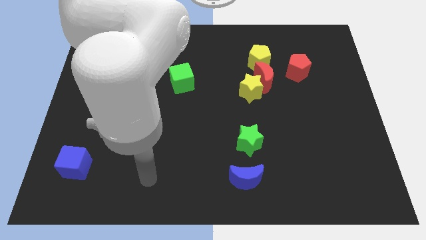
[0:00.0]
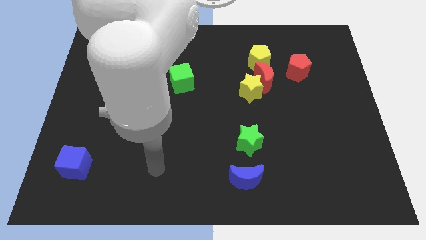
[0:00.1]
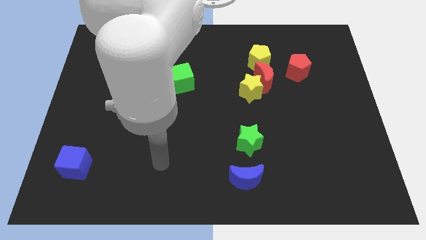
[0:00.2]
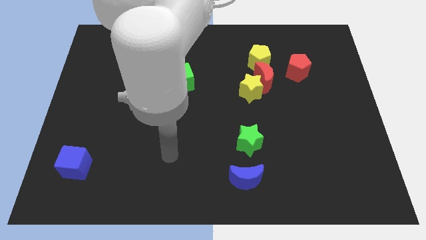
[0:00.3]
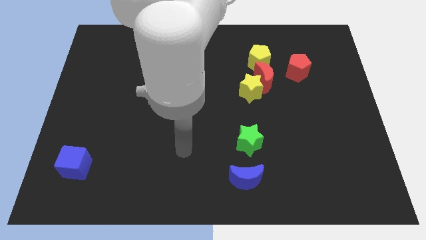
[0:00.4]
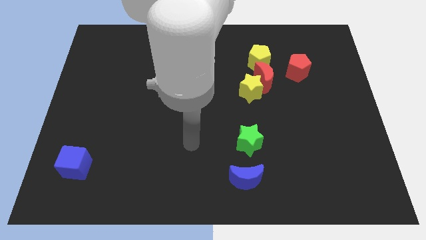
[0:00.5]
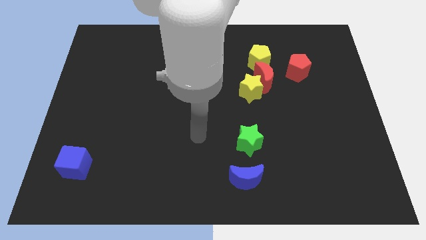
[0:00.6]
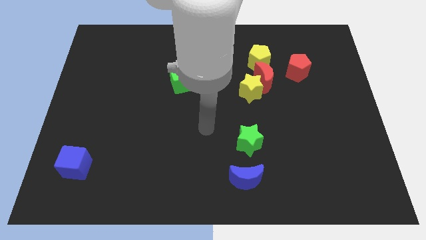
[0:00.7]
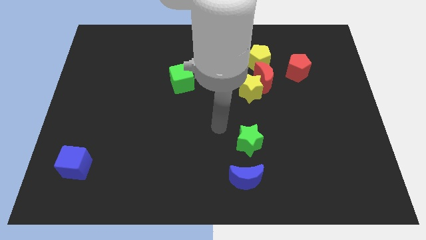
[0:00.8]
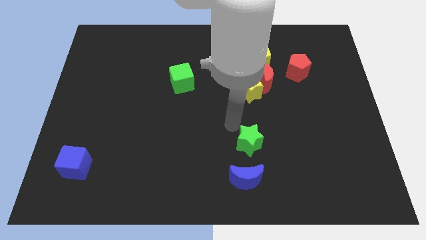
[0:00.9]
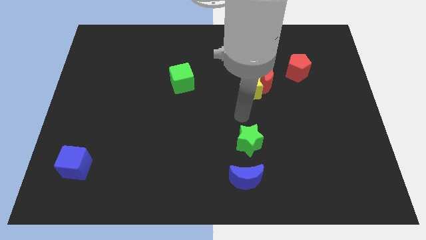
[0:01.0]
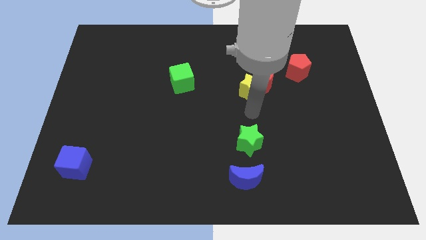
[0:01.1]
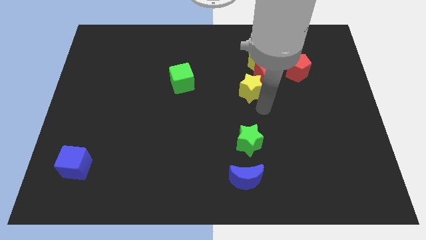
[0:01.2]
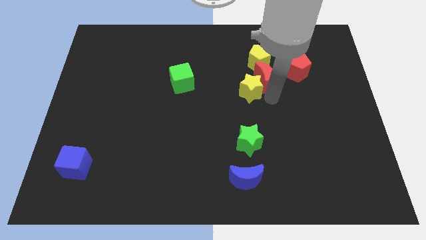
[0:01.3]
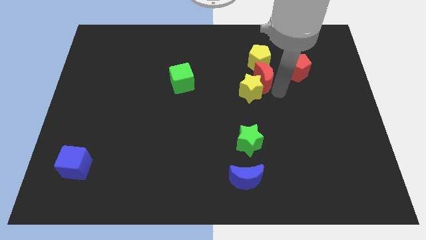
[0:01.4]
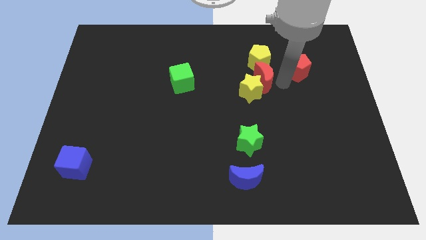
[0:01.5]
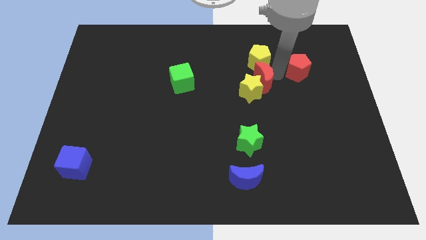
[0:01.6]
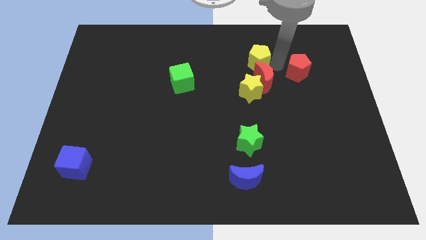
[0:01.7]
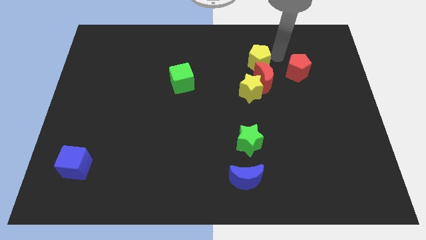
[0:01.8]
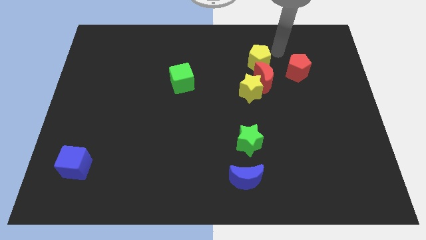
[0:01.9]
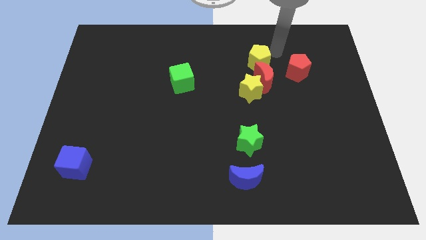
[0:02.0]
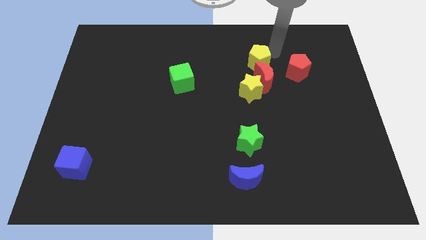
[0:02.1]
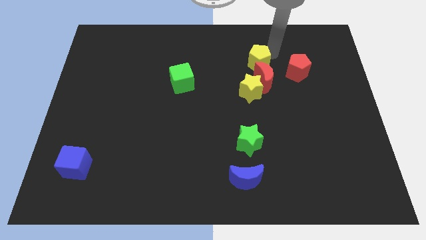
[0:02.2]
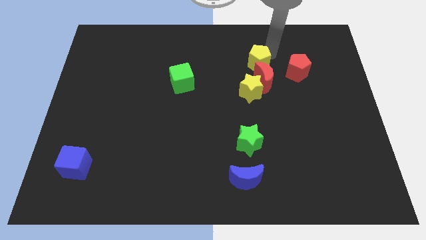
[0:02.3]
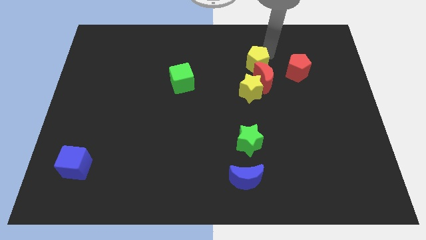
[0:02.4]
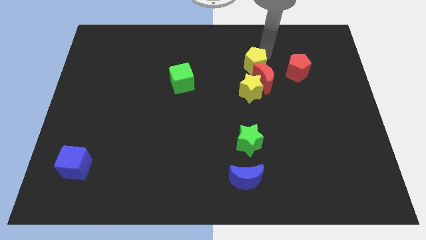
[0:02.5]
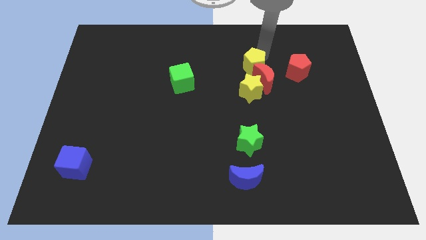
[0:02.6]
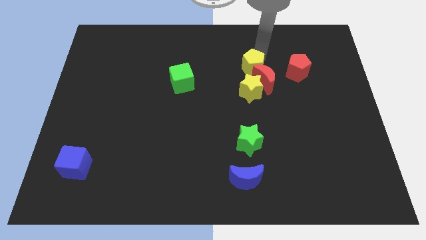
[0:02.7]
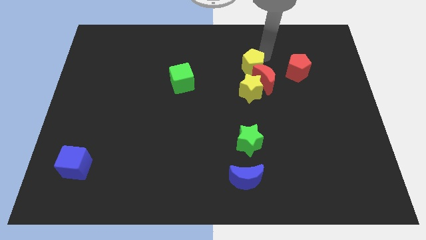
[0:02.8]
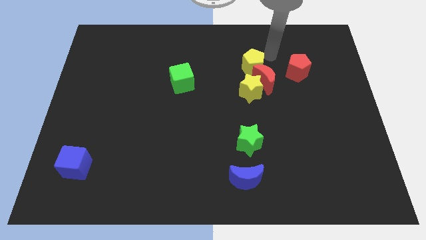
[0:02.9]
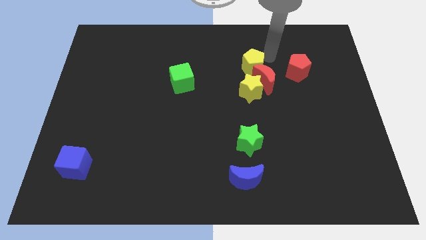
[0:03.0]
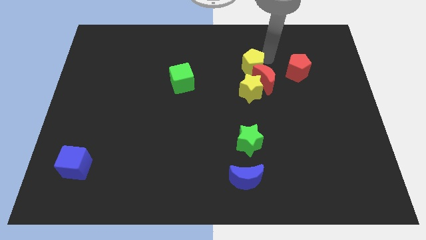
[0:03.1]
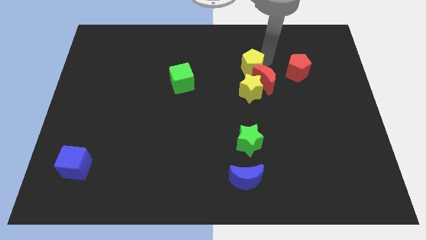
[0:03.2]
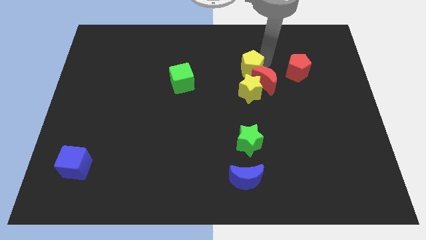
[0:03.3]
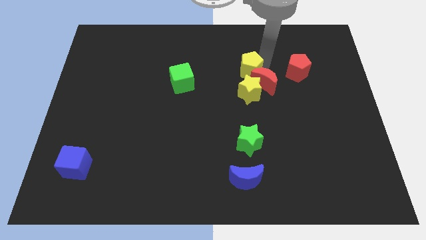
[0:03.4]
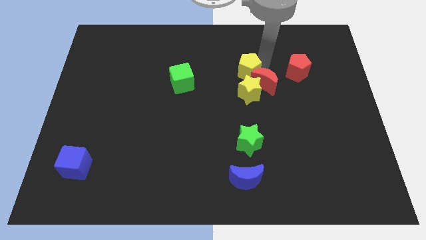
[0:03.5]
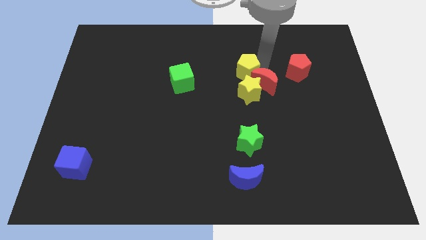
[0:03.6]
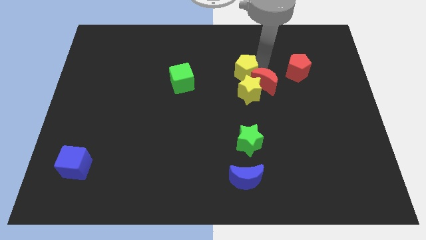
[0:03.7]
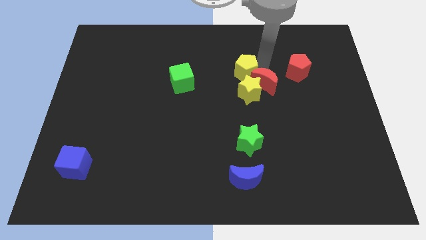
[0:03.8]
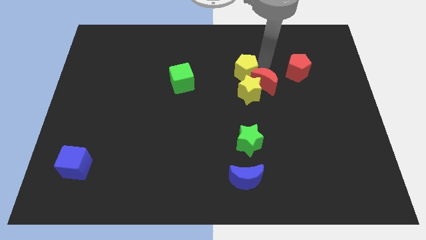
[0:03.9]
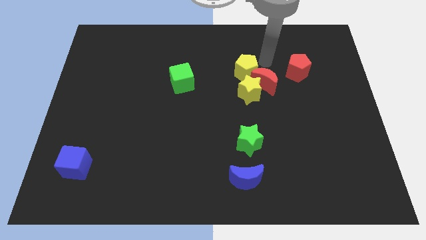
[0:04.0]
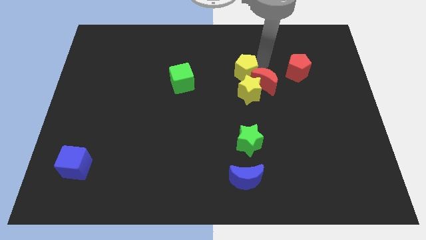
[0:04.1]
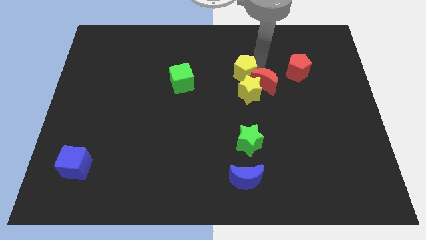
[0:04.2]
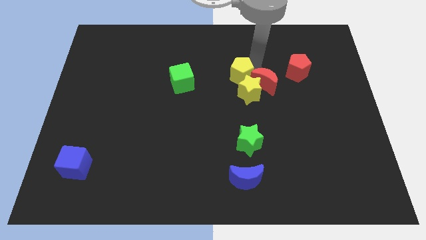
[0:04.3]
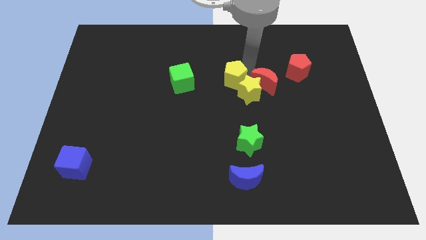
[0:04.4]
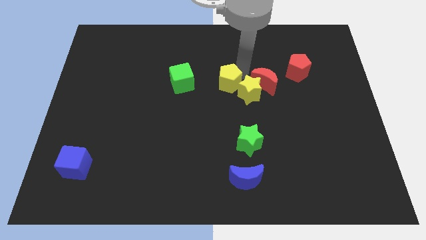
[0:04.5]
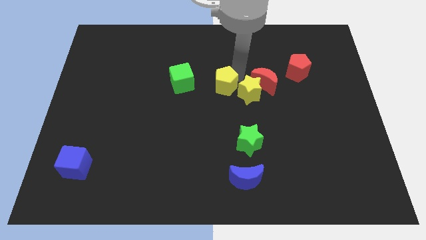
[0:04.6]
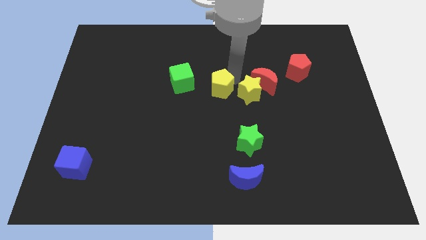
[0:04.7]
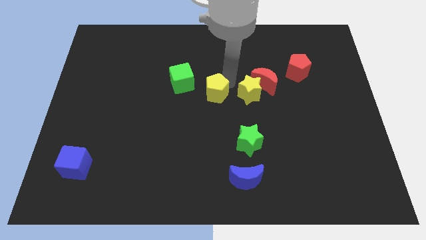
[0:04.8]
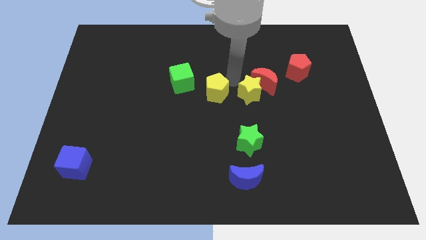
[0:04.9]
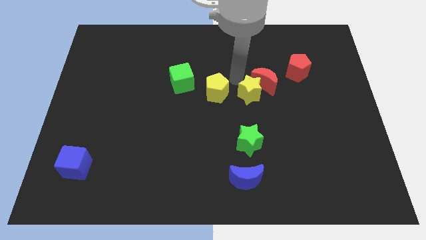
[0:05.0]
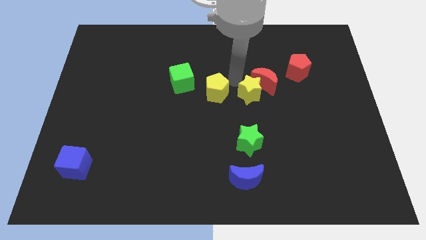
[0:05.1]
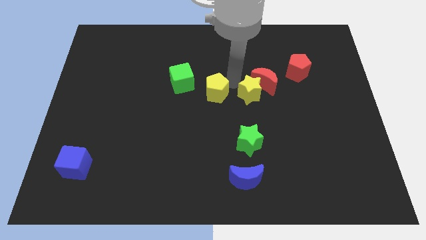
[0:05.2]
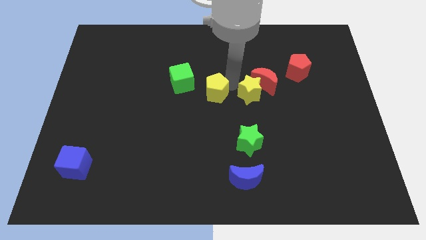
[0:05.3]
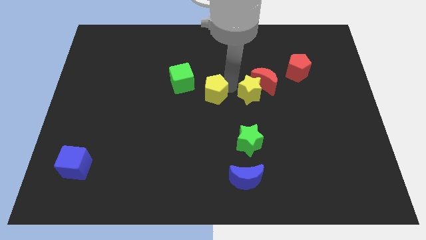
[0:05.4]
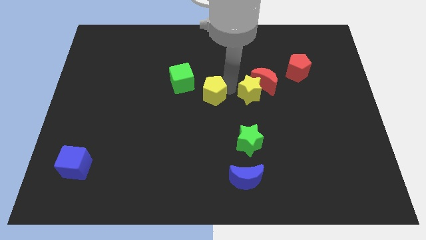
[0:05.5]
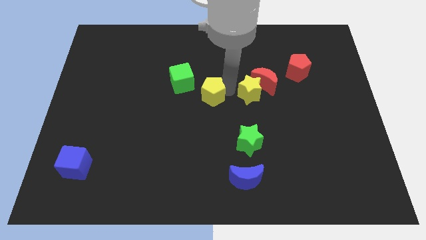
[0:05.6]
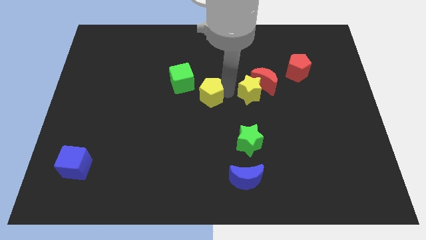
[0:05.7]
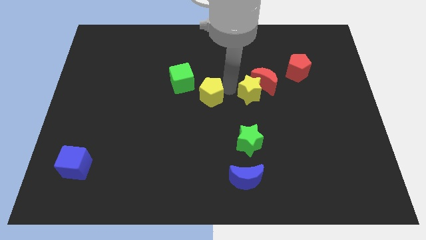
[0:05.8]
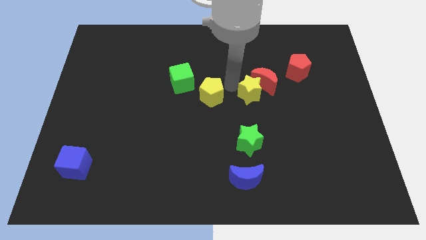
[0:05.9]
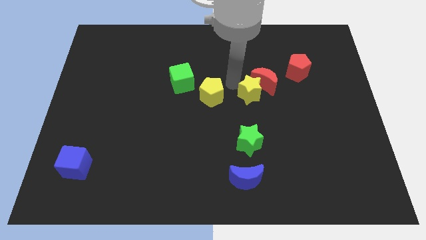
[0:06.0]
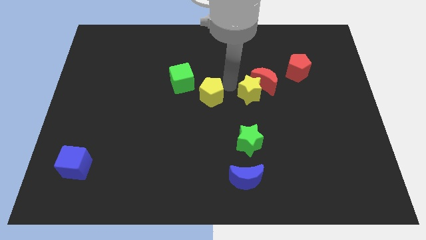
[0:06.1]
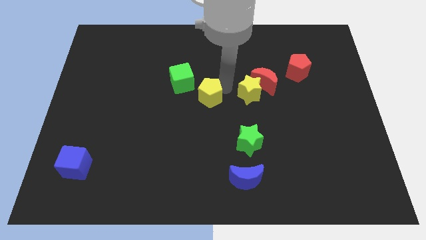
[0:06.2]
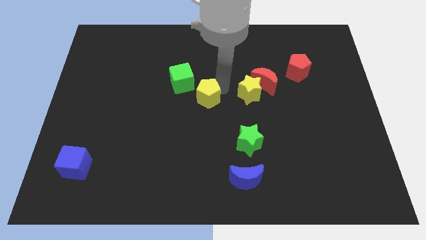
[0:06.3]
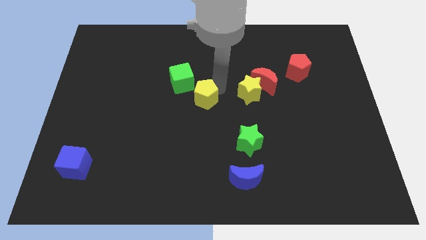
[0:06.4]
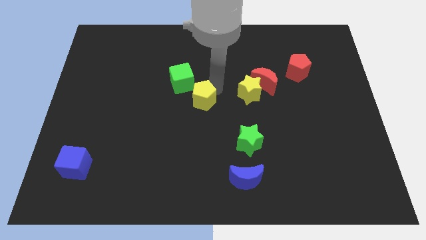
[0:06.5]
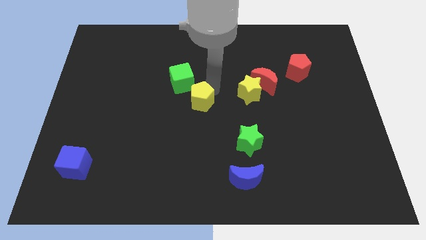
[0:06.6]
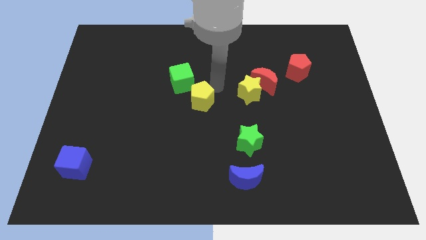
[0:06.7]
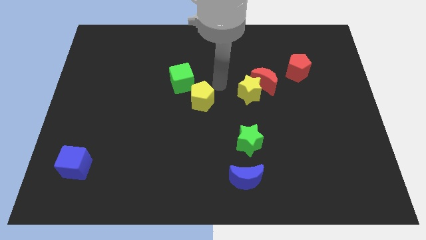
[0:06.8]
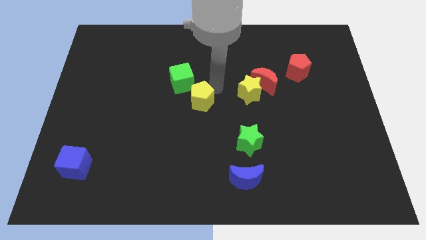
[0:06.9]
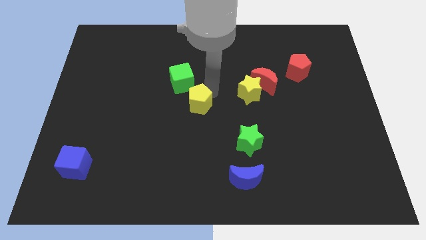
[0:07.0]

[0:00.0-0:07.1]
move the yellow pentagon down and to the left

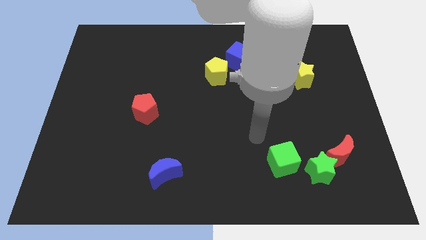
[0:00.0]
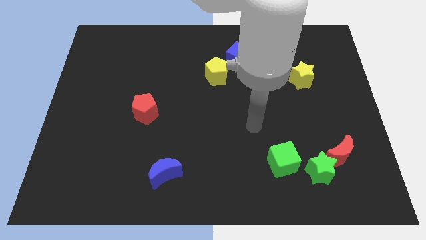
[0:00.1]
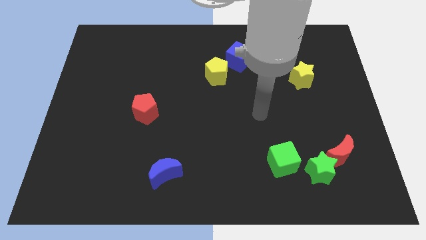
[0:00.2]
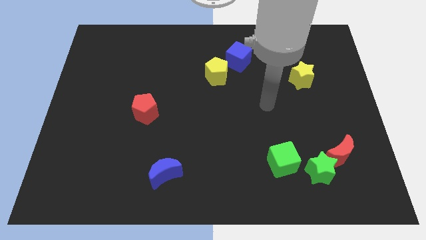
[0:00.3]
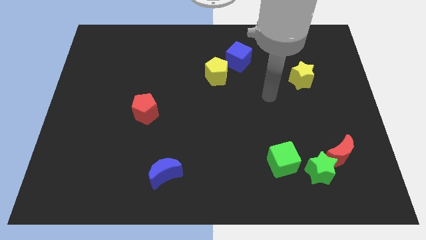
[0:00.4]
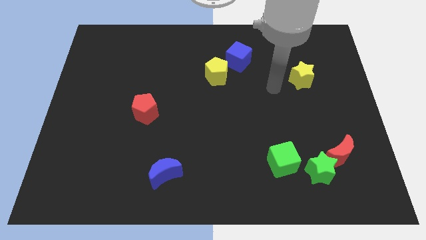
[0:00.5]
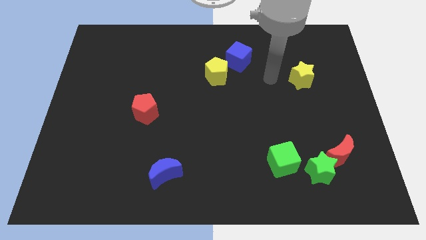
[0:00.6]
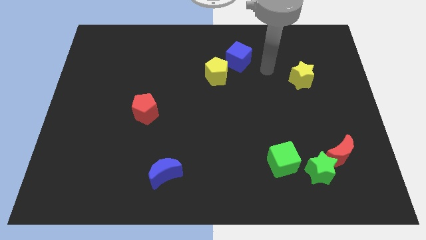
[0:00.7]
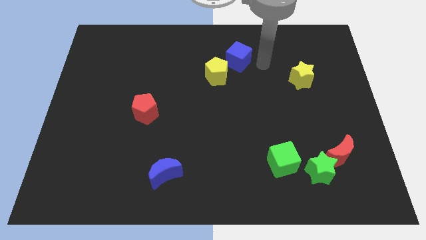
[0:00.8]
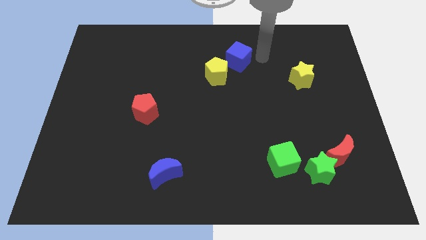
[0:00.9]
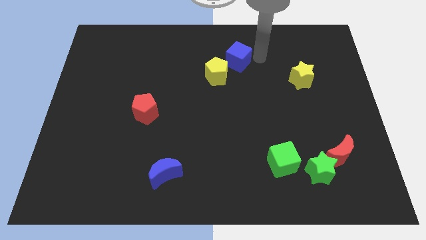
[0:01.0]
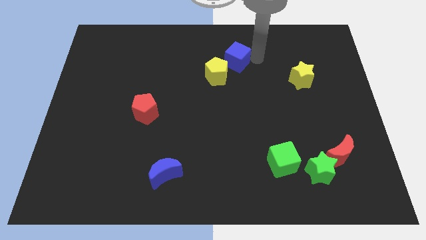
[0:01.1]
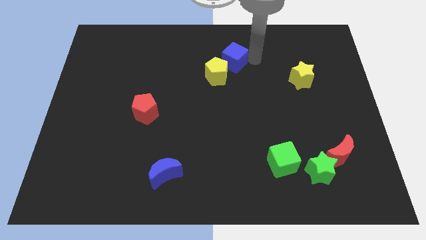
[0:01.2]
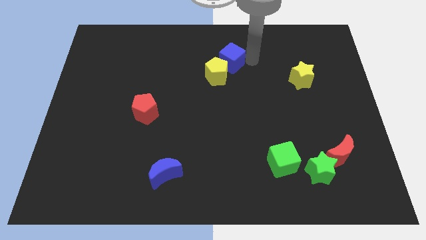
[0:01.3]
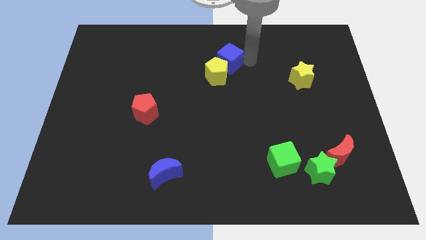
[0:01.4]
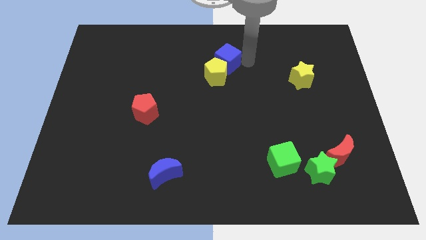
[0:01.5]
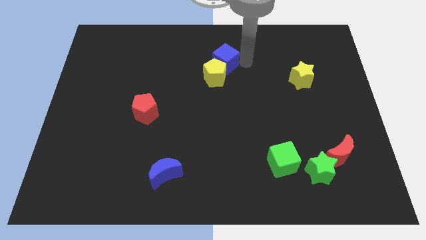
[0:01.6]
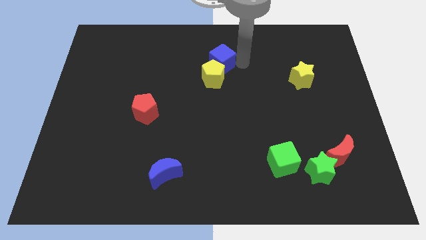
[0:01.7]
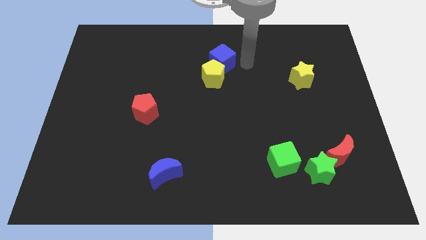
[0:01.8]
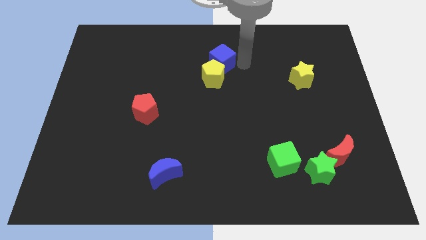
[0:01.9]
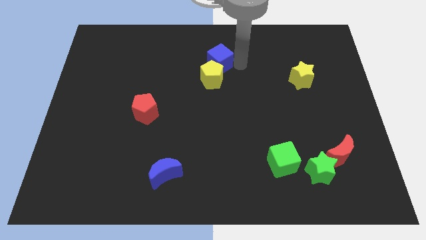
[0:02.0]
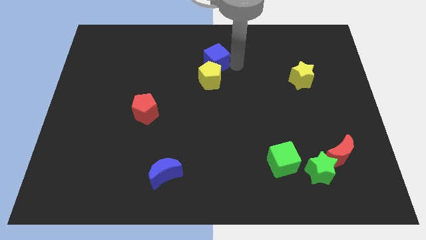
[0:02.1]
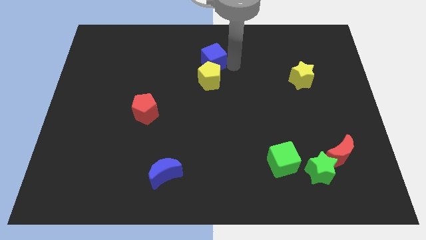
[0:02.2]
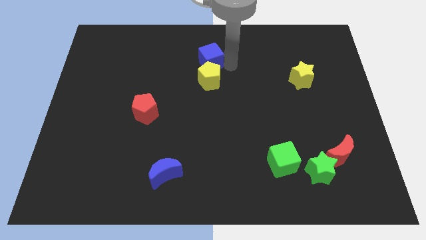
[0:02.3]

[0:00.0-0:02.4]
slide the blue cube left somewhat
